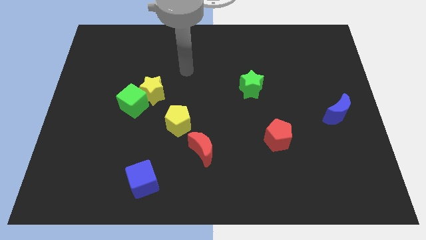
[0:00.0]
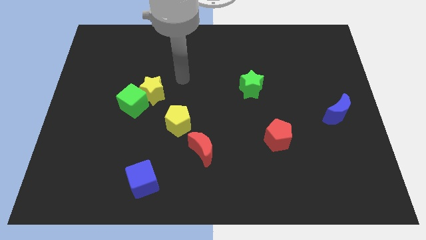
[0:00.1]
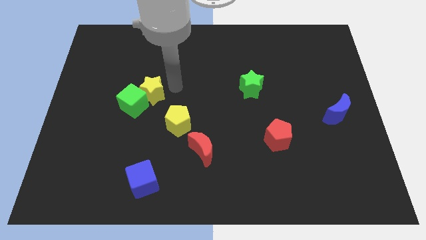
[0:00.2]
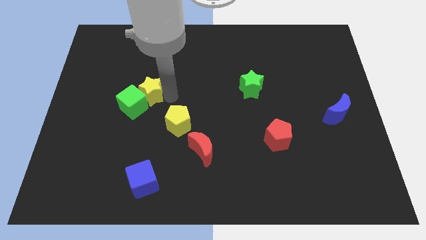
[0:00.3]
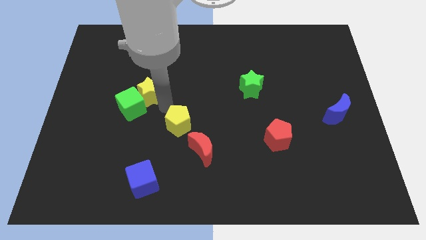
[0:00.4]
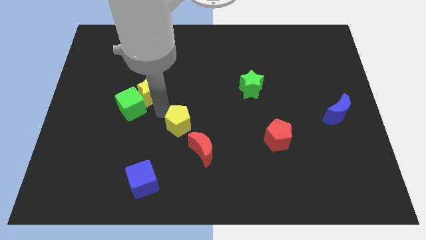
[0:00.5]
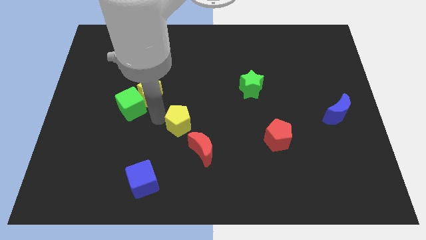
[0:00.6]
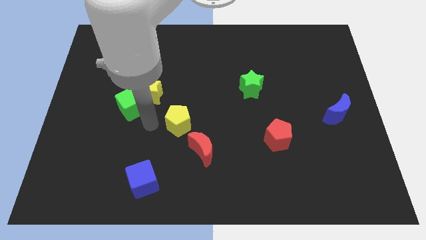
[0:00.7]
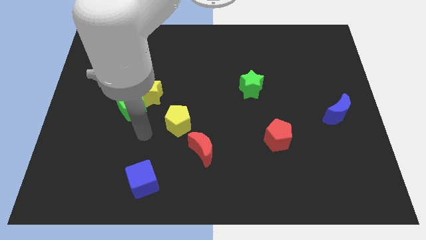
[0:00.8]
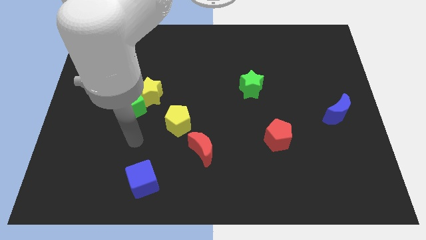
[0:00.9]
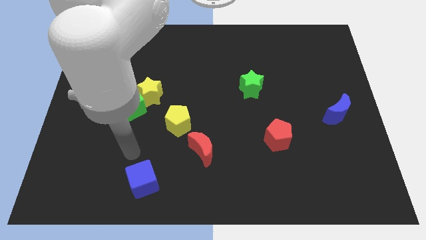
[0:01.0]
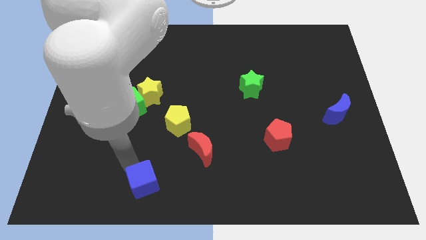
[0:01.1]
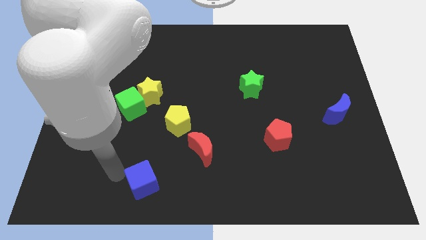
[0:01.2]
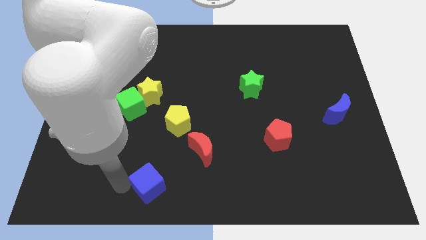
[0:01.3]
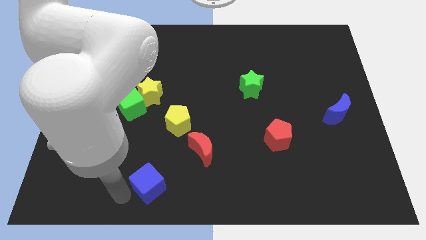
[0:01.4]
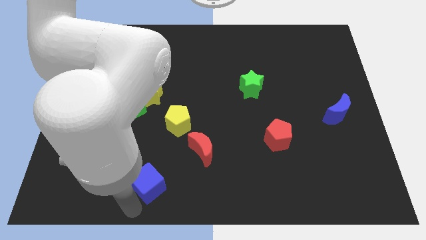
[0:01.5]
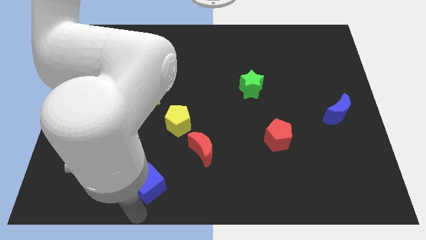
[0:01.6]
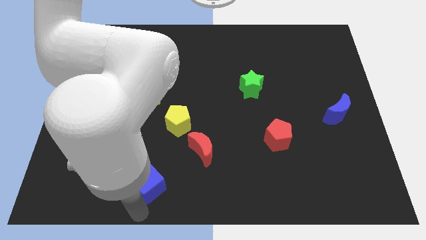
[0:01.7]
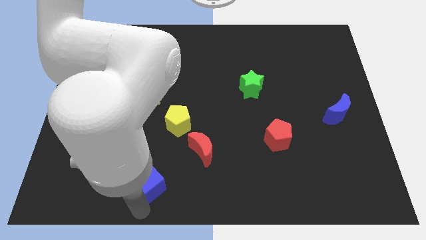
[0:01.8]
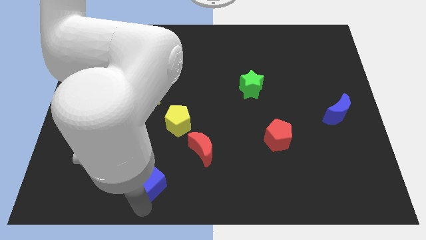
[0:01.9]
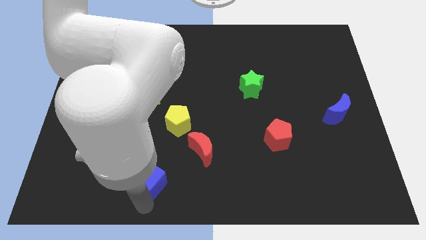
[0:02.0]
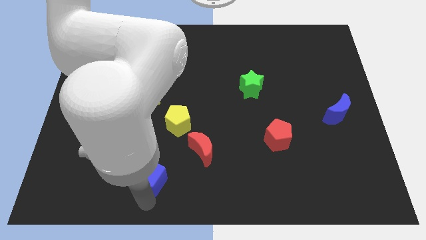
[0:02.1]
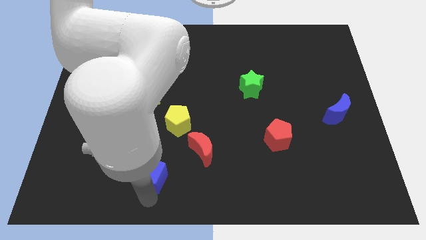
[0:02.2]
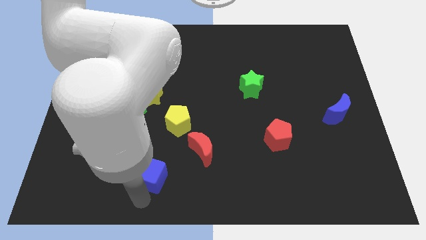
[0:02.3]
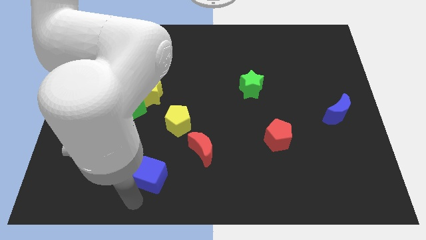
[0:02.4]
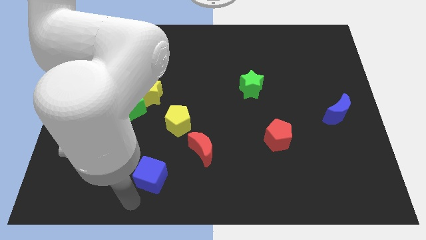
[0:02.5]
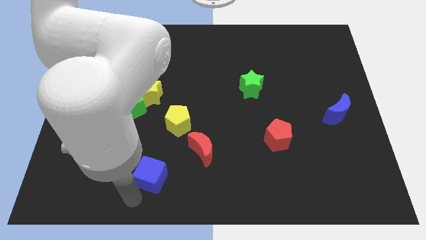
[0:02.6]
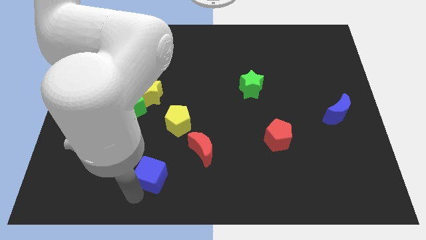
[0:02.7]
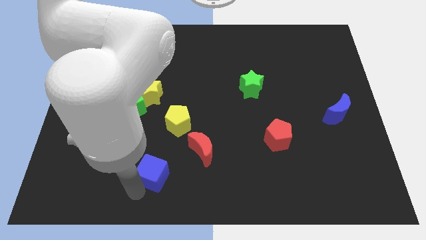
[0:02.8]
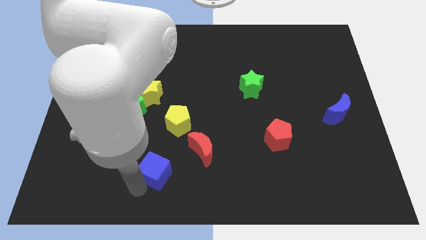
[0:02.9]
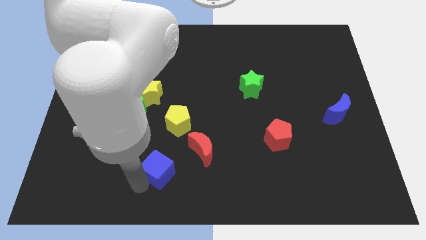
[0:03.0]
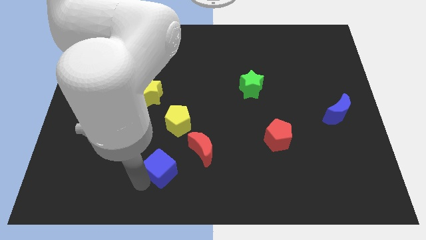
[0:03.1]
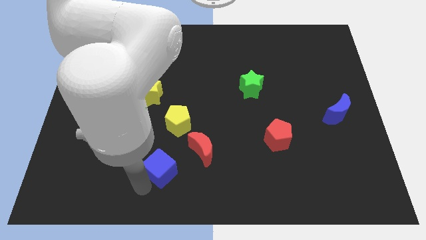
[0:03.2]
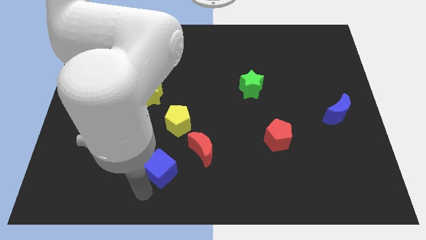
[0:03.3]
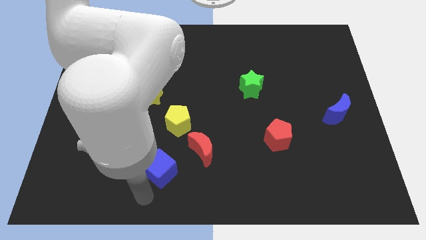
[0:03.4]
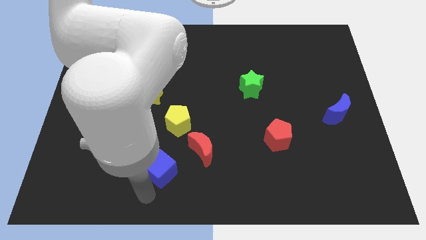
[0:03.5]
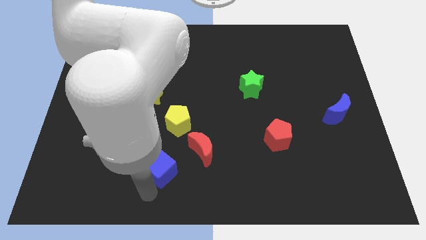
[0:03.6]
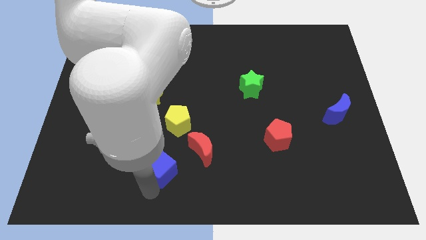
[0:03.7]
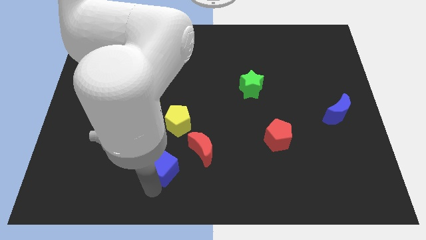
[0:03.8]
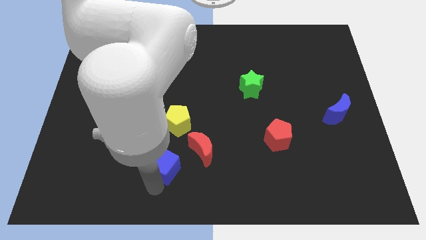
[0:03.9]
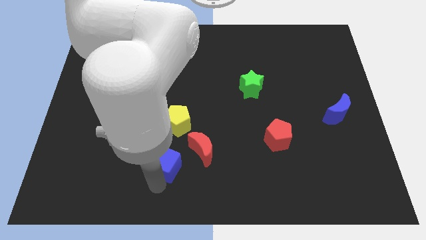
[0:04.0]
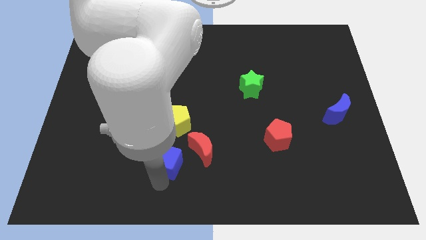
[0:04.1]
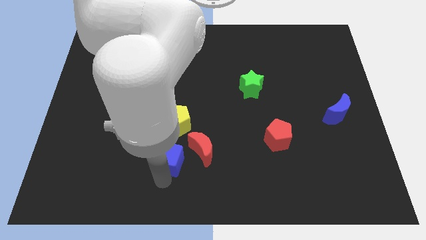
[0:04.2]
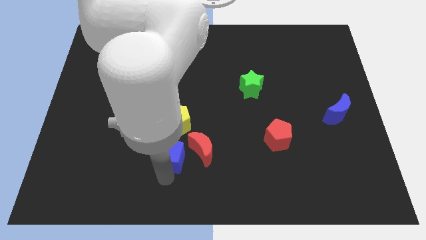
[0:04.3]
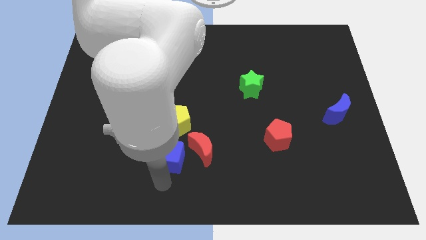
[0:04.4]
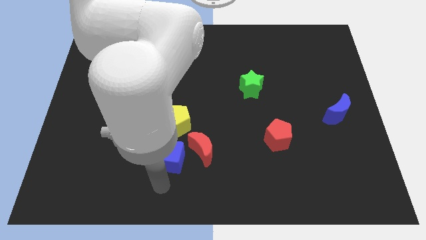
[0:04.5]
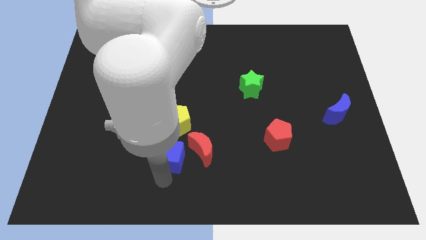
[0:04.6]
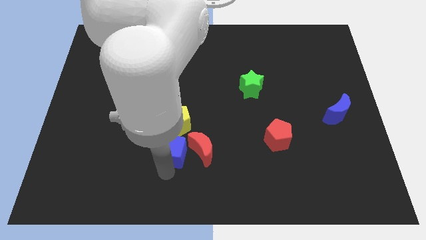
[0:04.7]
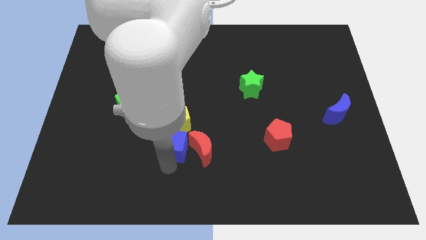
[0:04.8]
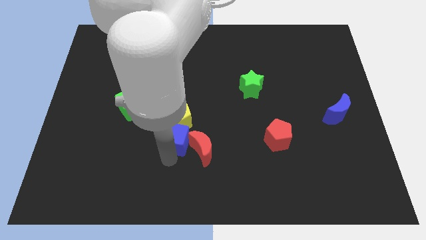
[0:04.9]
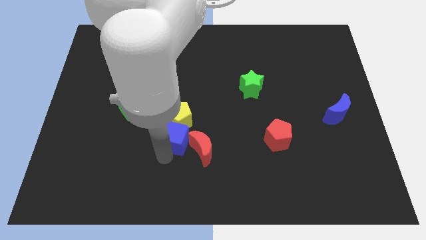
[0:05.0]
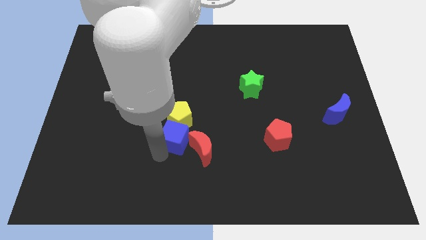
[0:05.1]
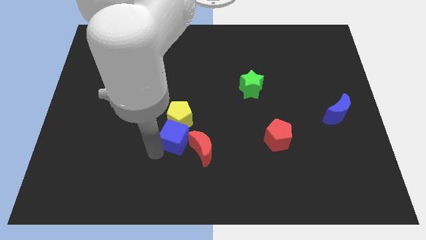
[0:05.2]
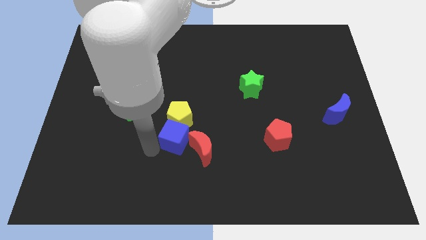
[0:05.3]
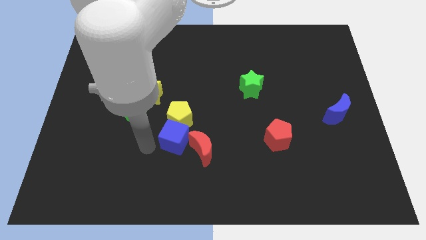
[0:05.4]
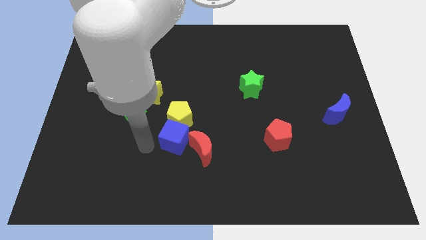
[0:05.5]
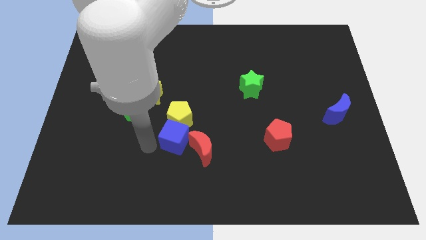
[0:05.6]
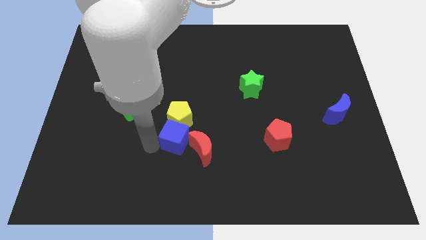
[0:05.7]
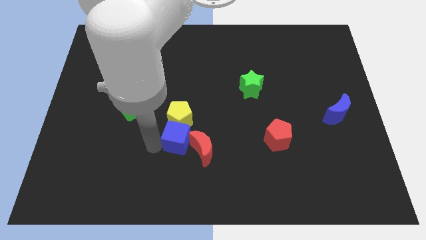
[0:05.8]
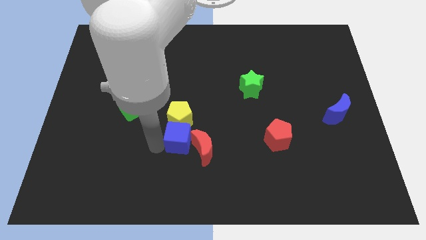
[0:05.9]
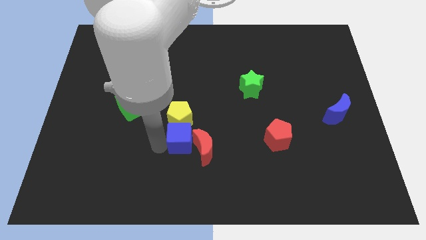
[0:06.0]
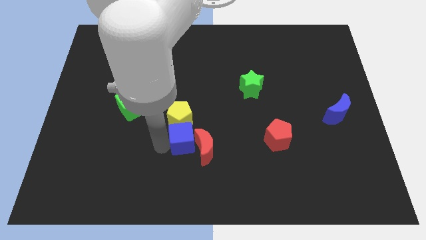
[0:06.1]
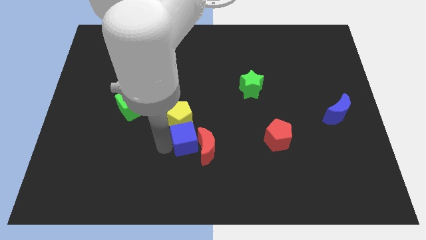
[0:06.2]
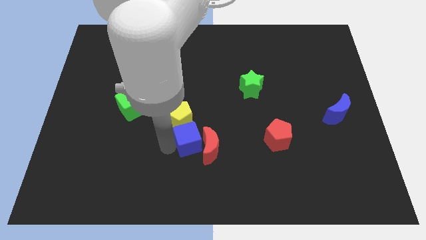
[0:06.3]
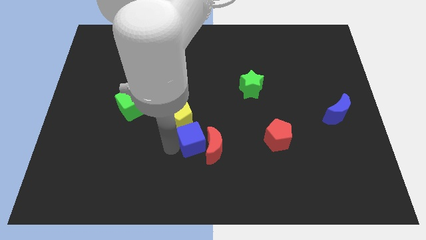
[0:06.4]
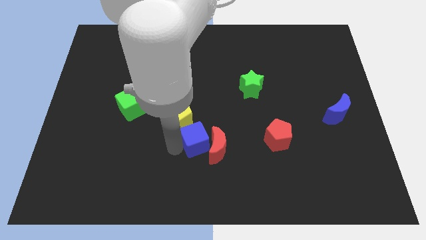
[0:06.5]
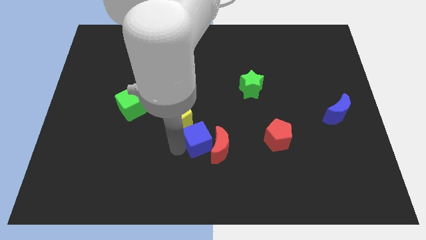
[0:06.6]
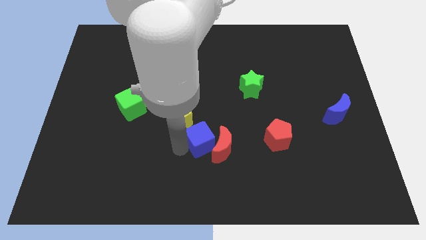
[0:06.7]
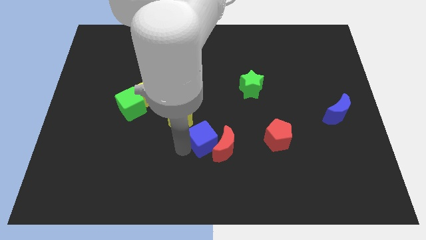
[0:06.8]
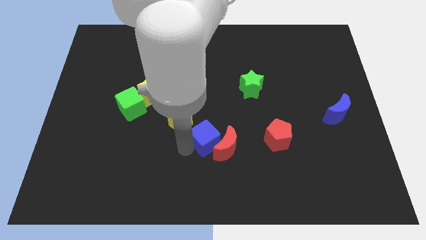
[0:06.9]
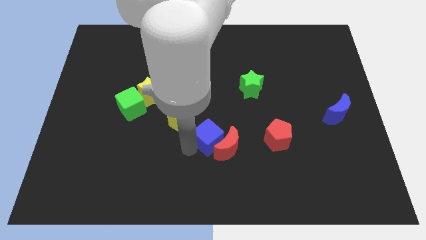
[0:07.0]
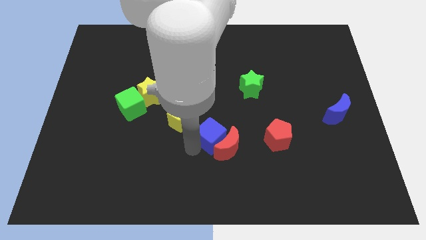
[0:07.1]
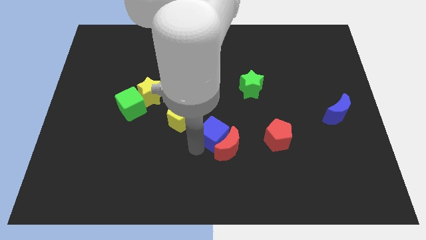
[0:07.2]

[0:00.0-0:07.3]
put the blue cube right of the yellow pentagon

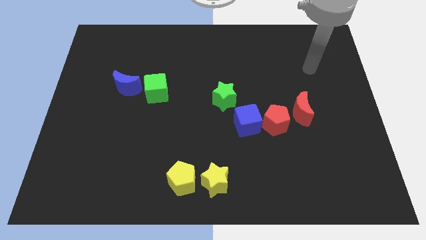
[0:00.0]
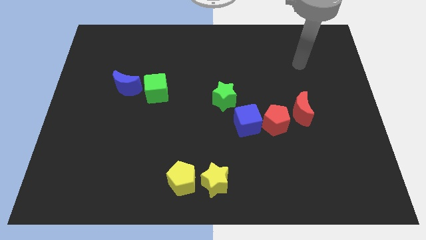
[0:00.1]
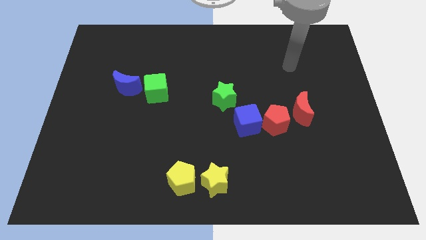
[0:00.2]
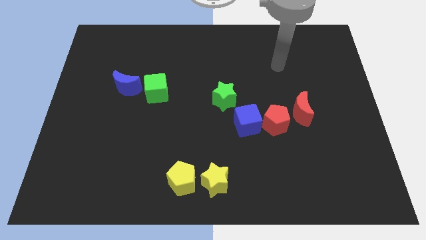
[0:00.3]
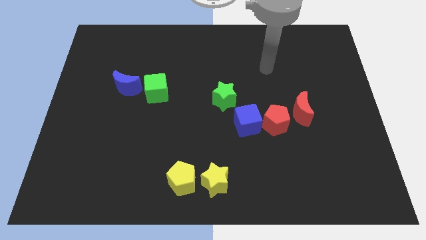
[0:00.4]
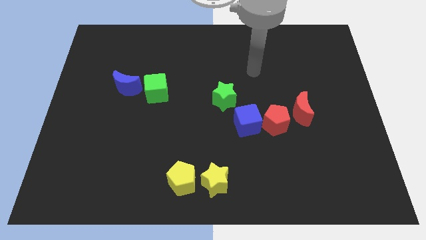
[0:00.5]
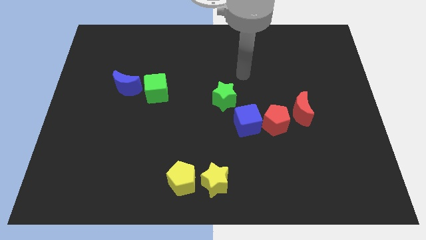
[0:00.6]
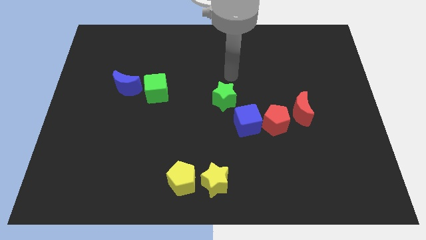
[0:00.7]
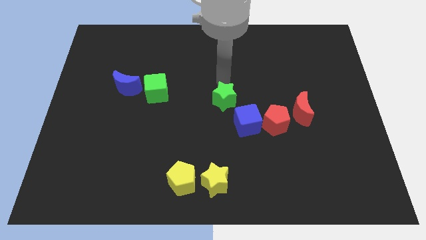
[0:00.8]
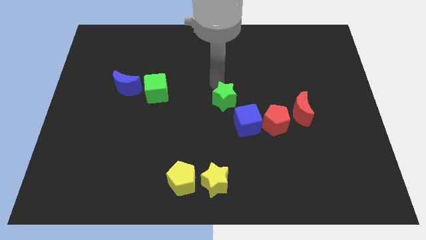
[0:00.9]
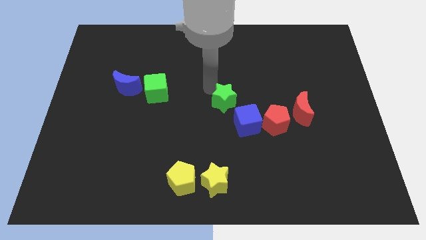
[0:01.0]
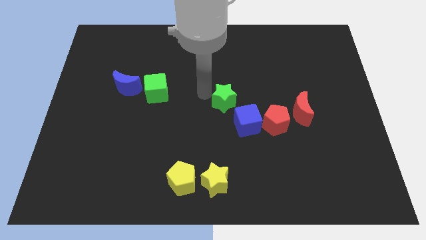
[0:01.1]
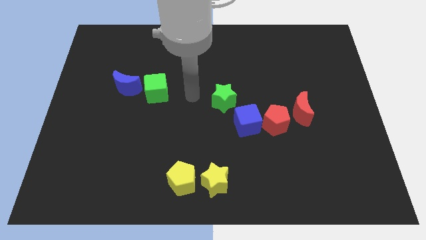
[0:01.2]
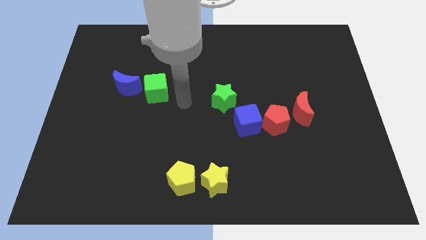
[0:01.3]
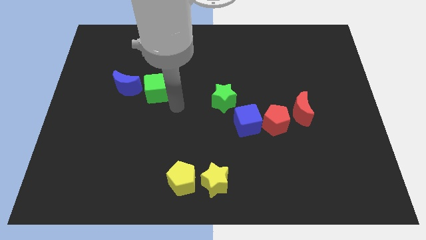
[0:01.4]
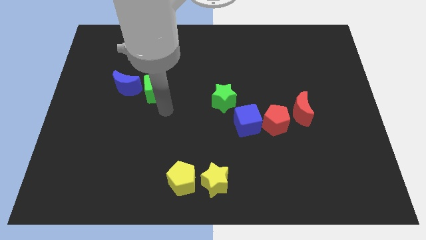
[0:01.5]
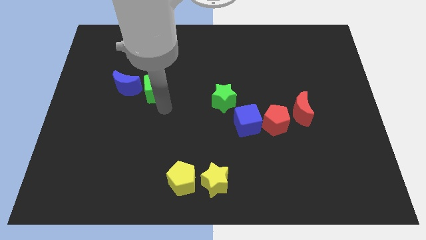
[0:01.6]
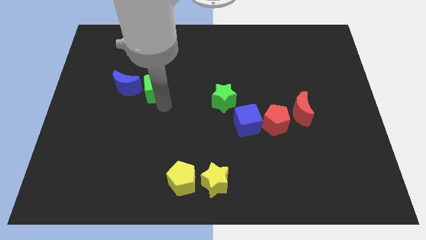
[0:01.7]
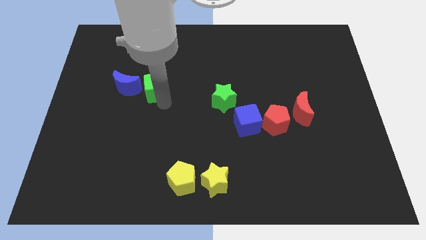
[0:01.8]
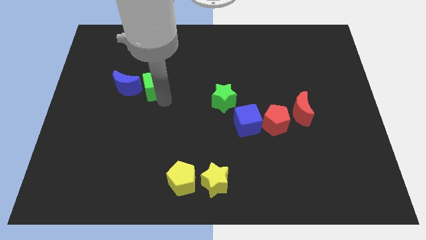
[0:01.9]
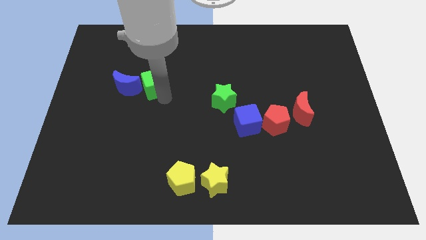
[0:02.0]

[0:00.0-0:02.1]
slide the green cube to the top right of the blue moon
